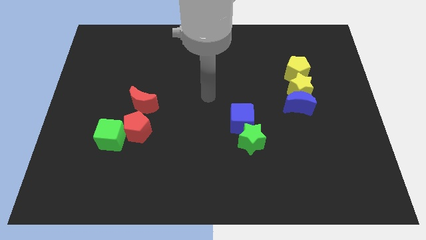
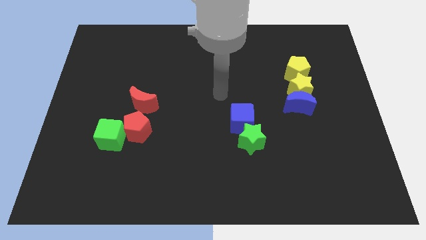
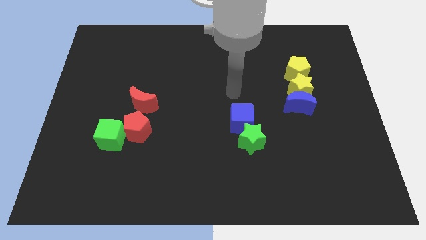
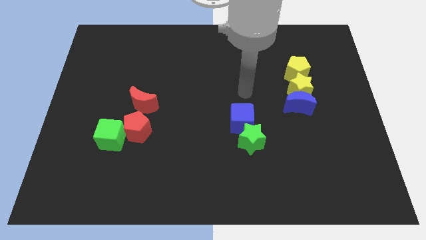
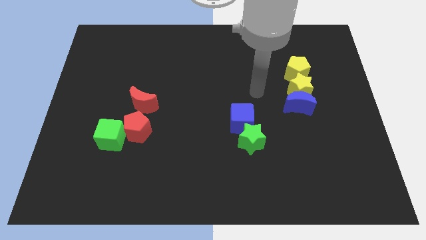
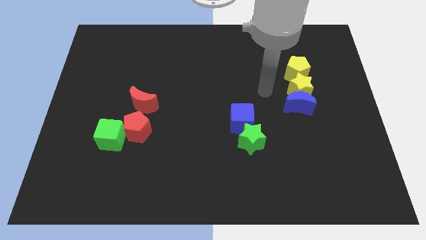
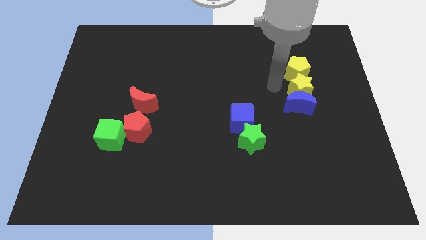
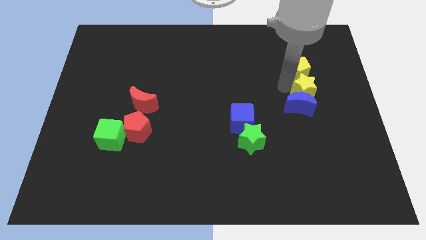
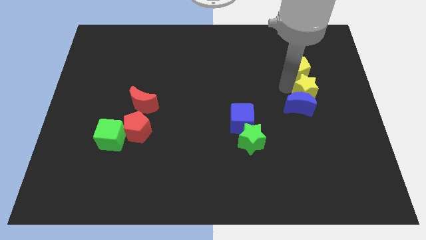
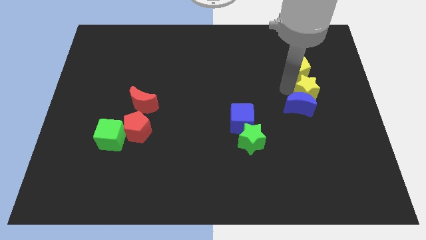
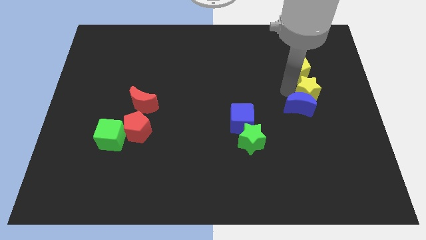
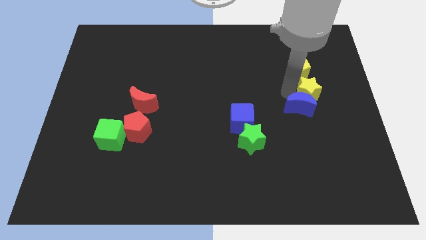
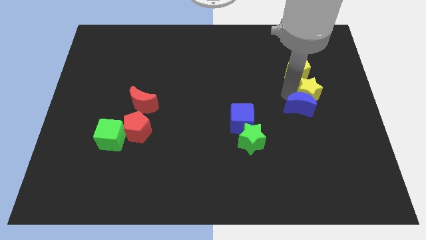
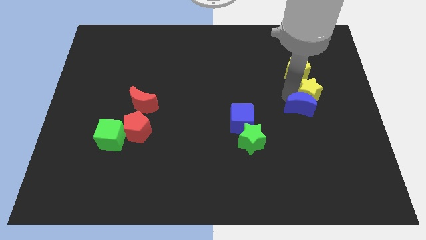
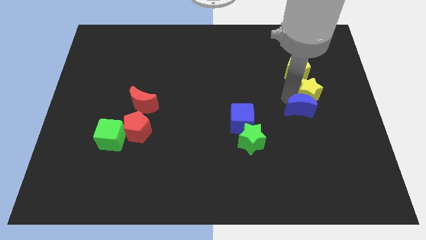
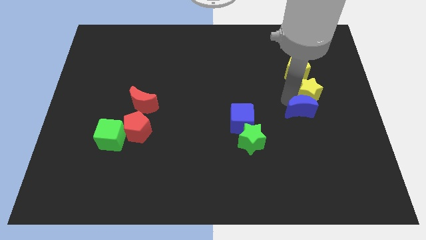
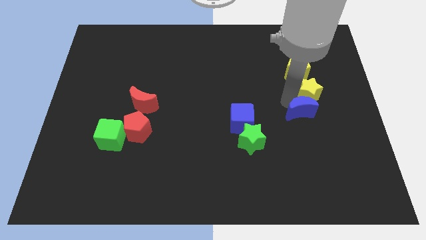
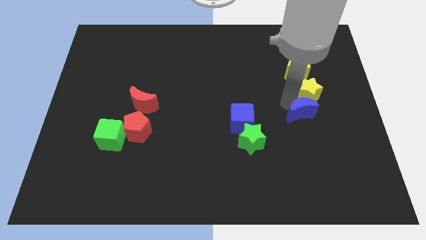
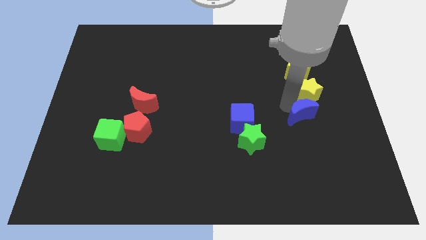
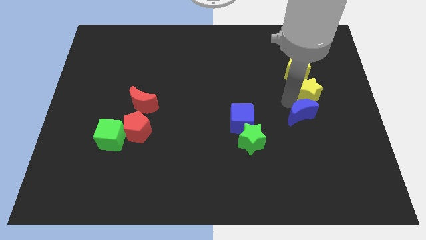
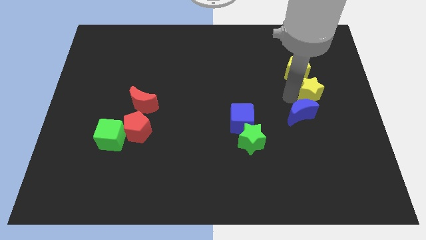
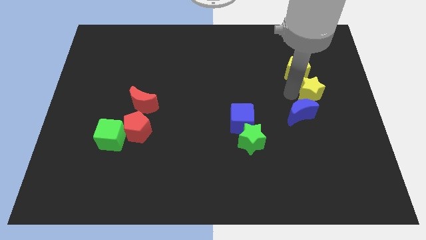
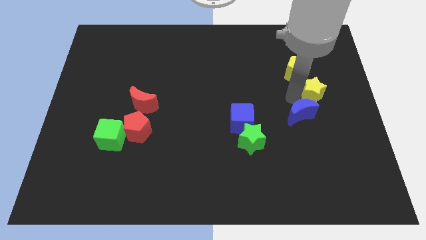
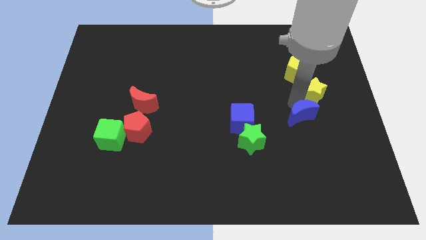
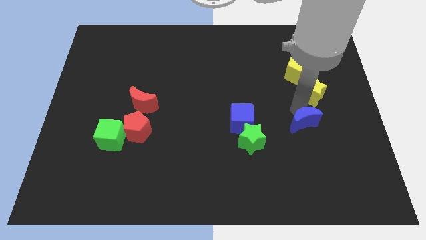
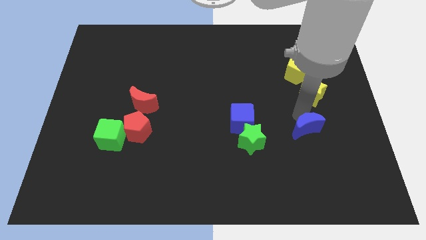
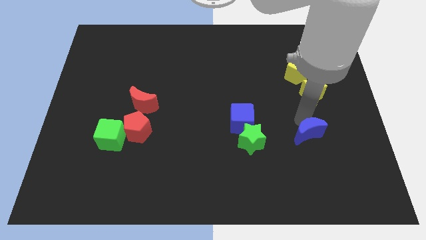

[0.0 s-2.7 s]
move the blue moon a little downwards

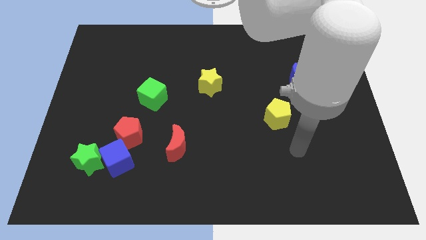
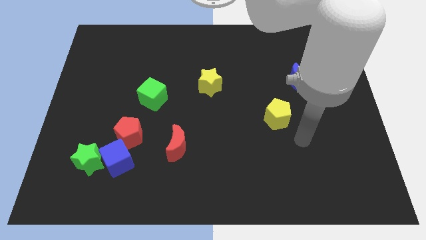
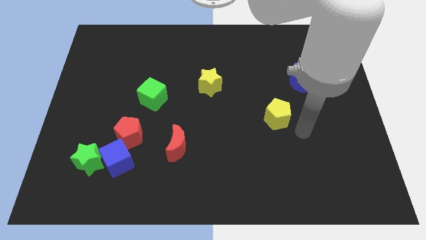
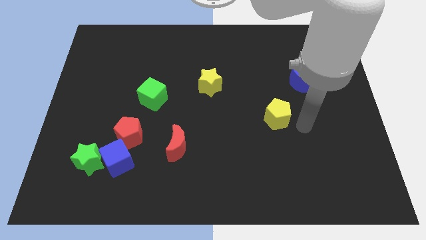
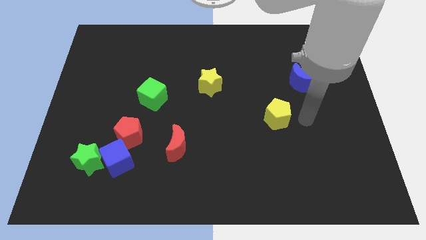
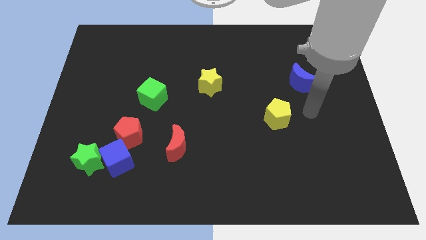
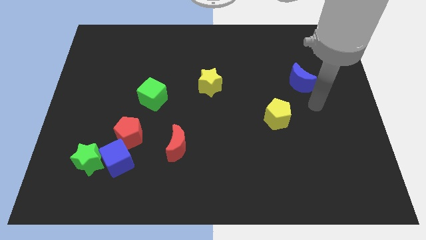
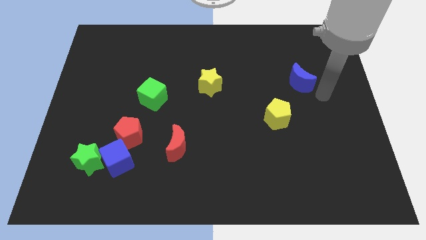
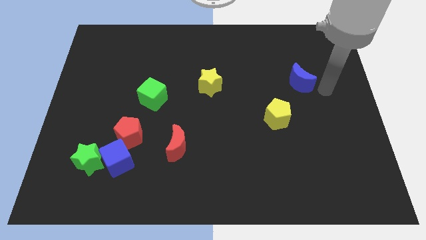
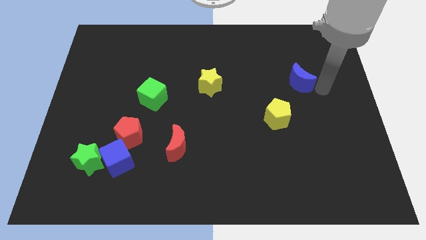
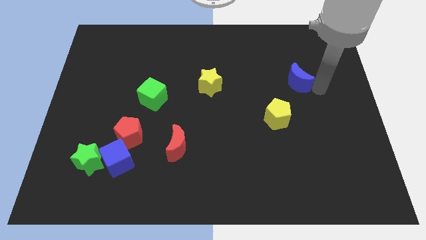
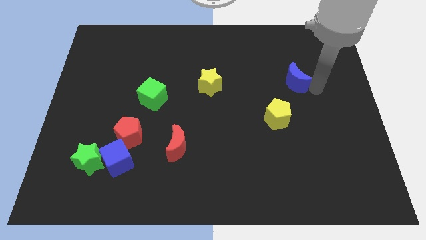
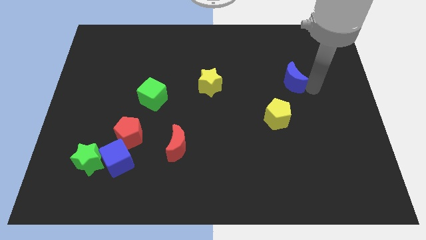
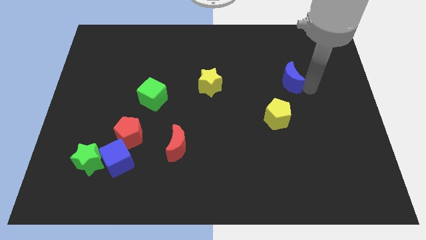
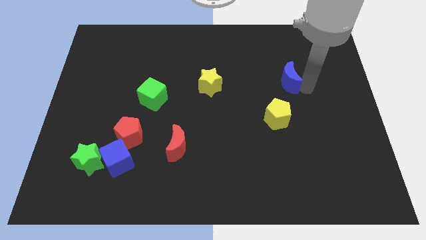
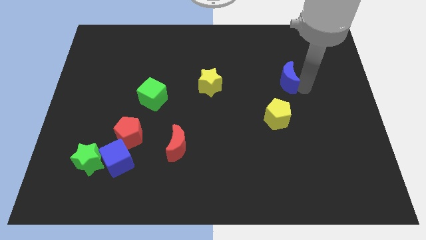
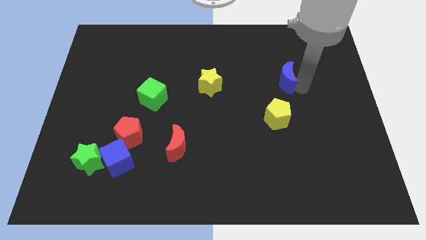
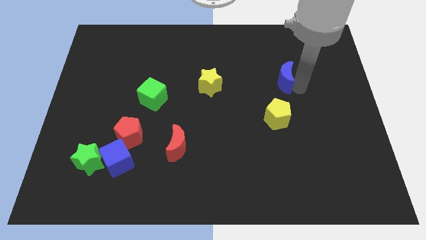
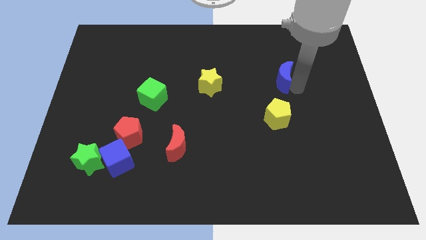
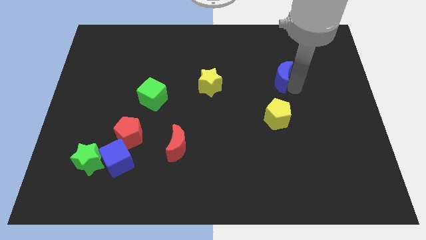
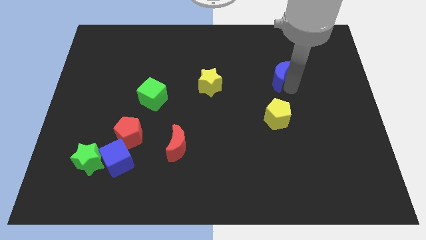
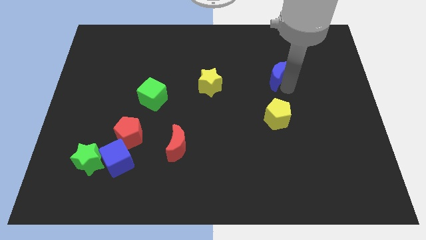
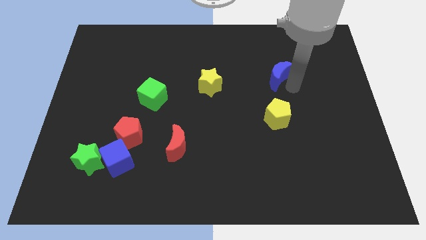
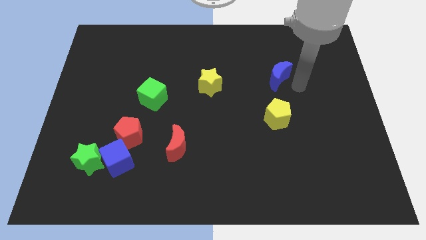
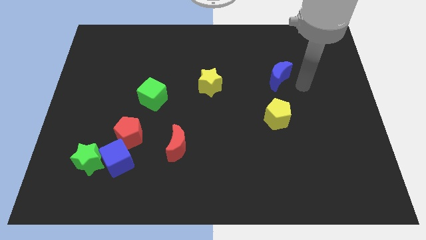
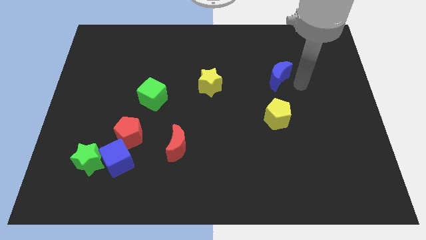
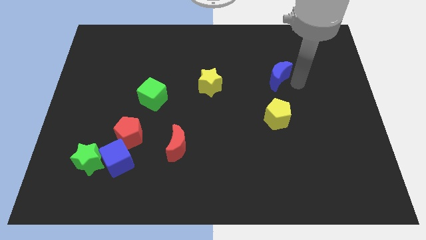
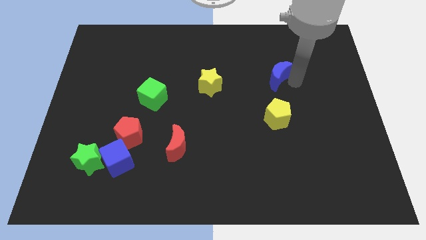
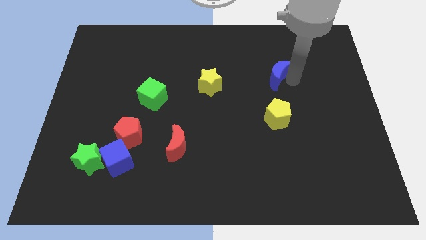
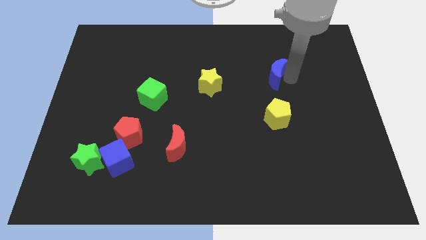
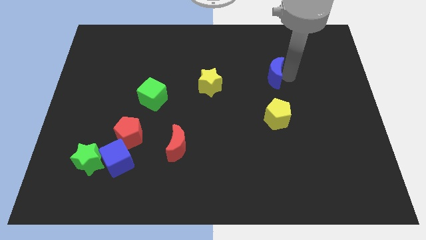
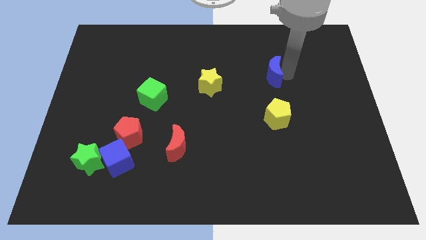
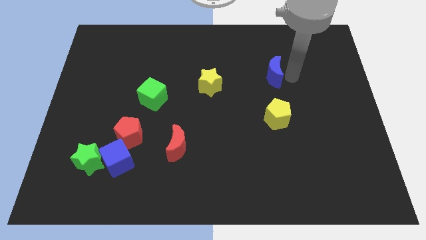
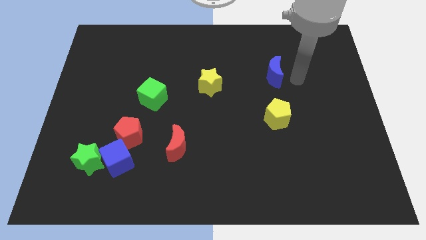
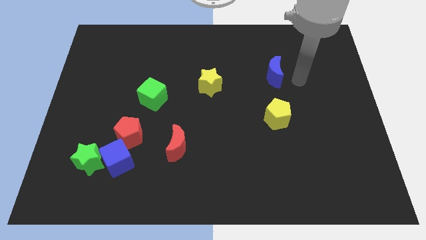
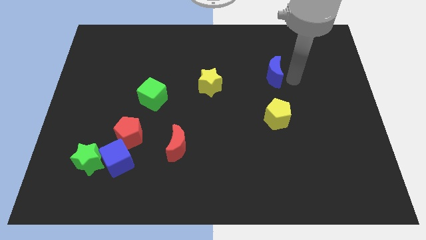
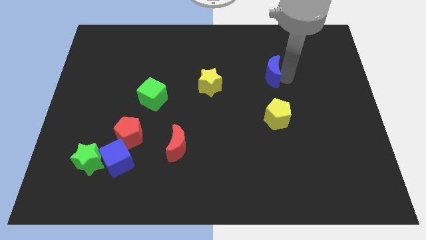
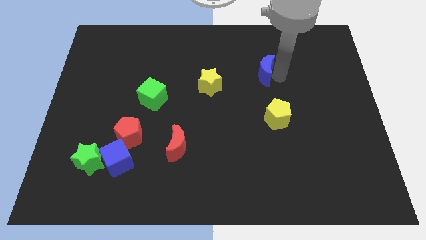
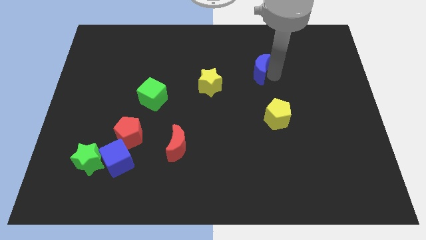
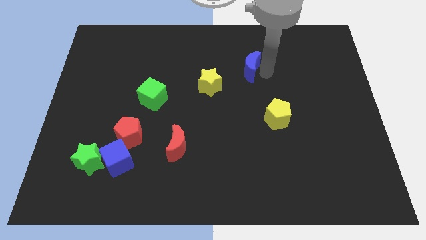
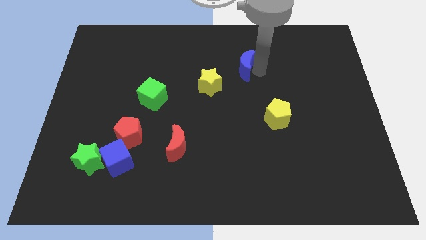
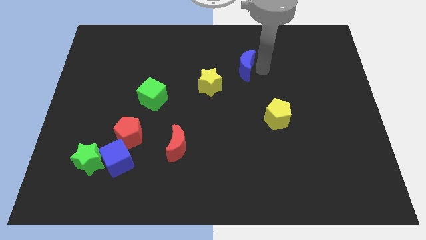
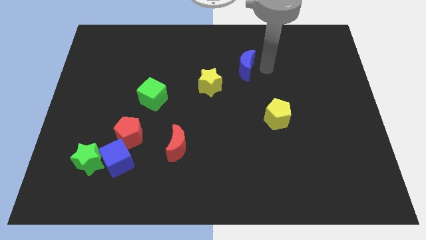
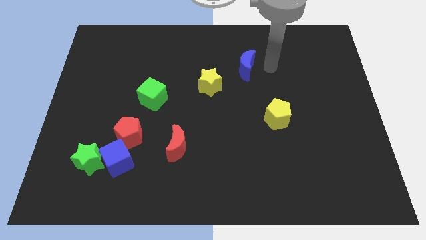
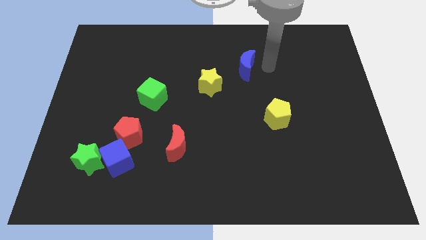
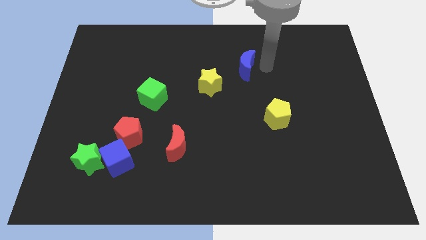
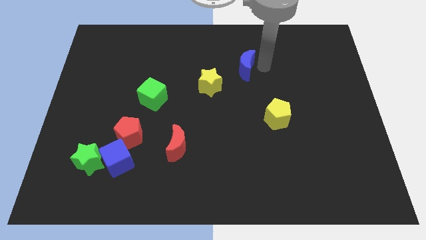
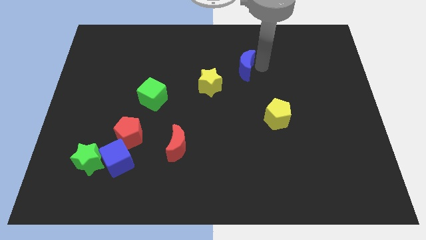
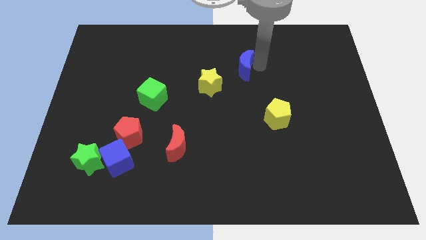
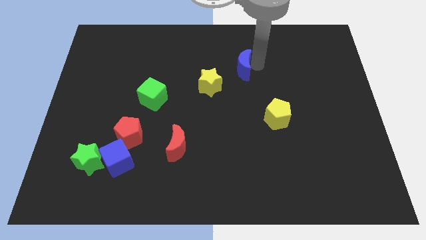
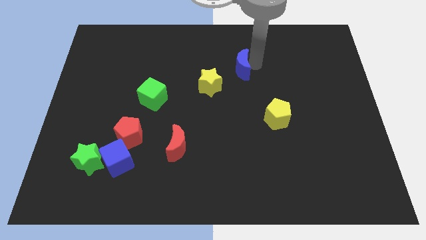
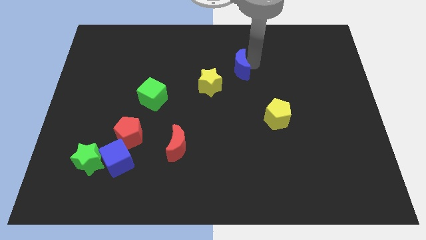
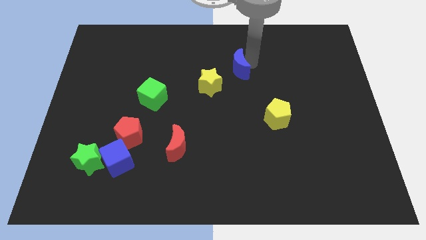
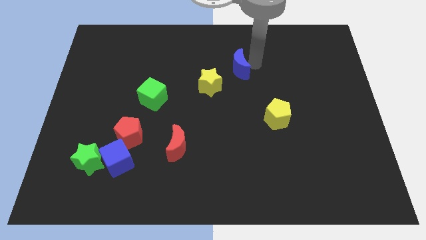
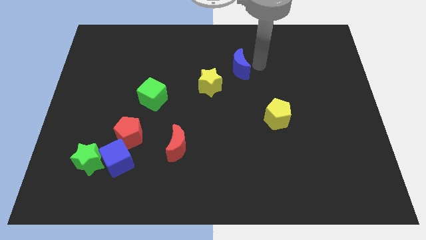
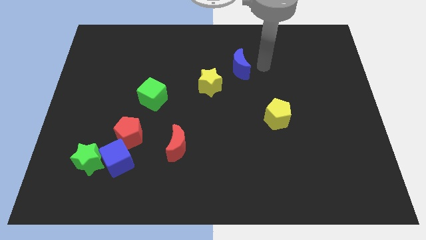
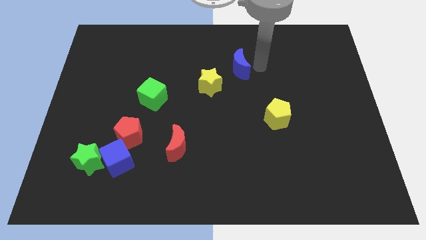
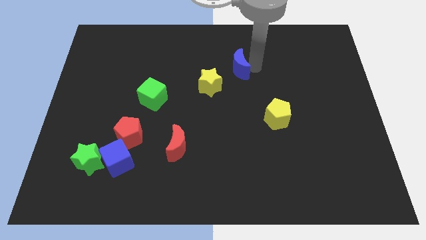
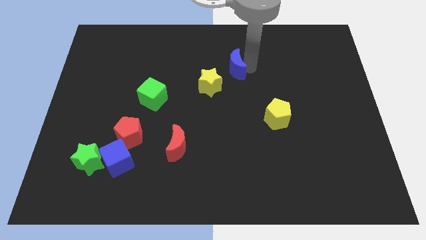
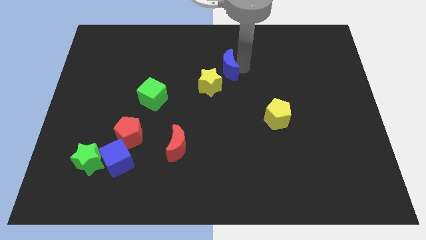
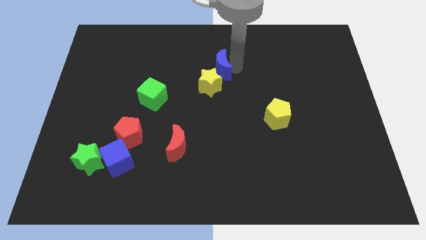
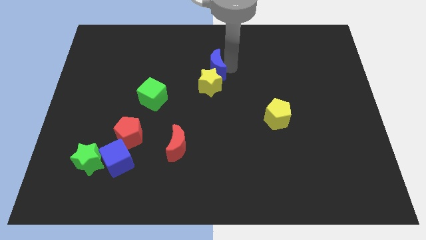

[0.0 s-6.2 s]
slide the blue moon left
